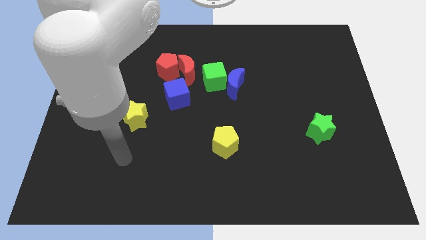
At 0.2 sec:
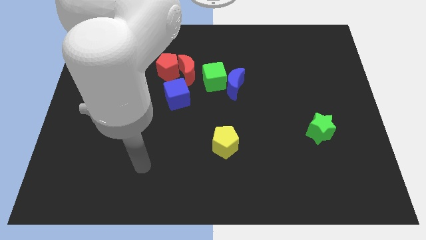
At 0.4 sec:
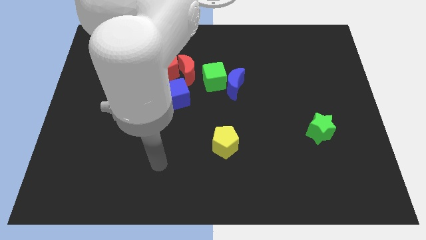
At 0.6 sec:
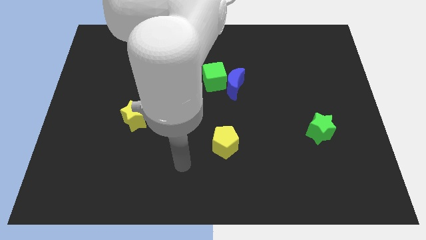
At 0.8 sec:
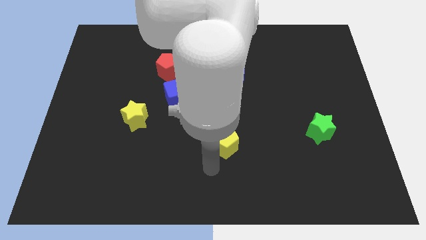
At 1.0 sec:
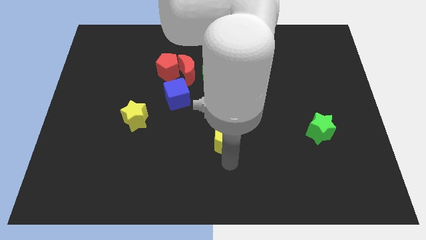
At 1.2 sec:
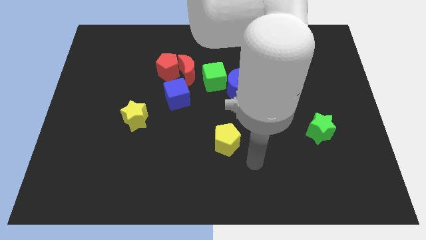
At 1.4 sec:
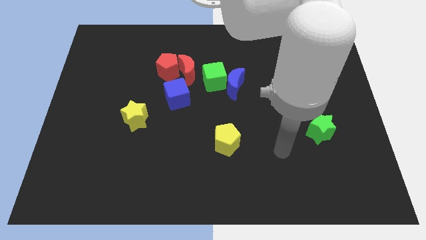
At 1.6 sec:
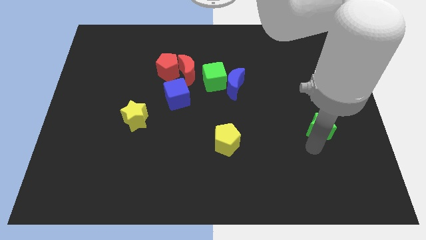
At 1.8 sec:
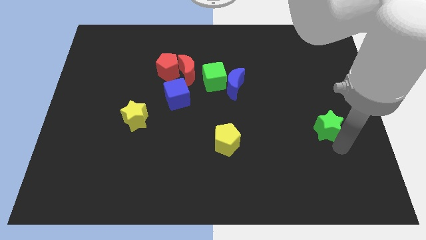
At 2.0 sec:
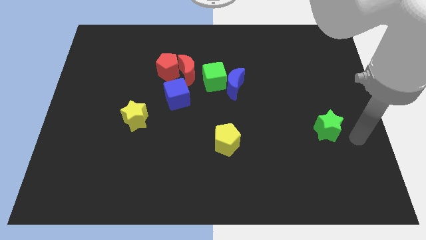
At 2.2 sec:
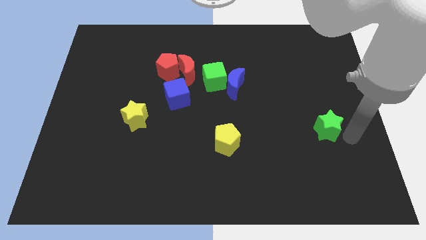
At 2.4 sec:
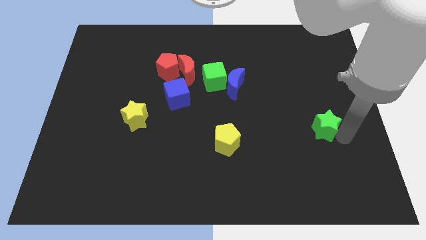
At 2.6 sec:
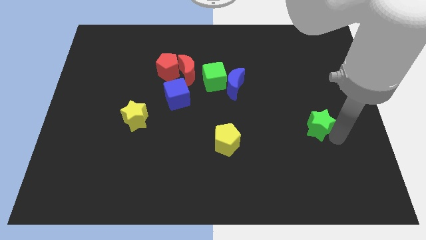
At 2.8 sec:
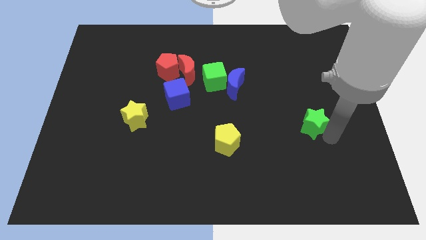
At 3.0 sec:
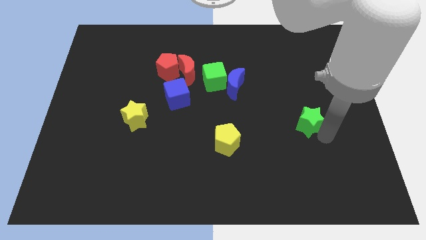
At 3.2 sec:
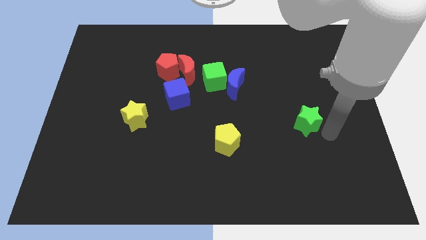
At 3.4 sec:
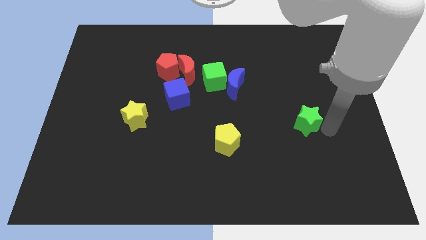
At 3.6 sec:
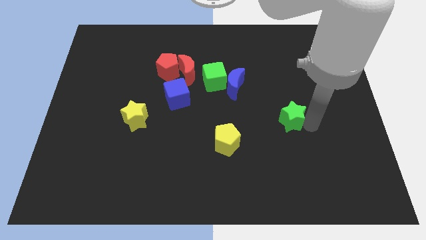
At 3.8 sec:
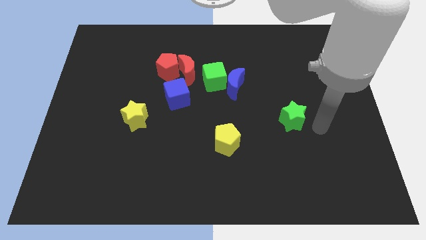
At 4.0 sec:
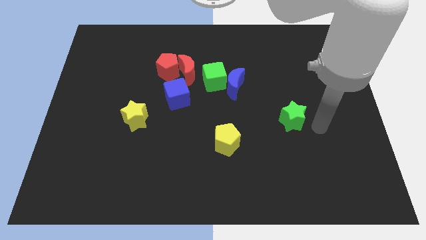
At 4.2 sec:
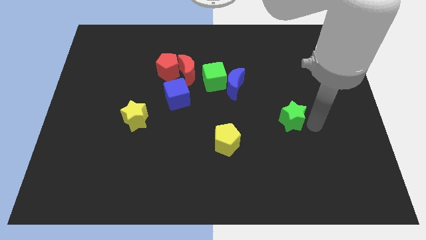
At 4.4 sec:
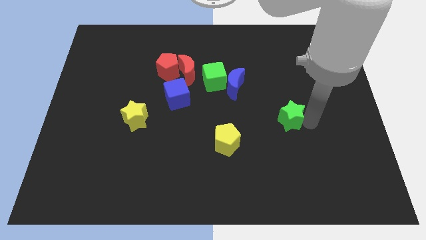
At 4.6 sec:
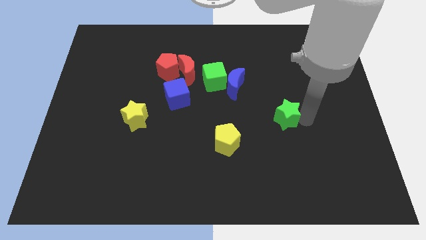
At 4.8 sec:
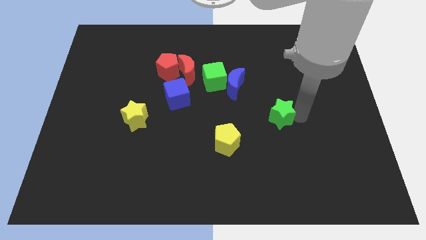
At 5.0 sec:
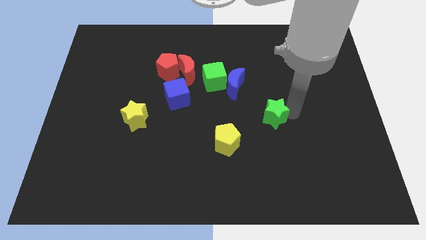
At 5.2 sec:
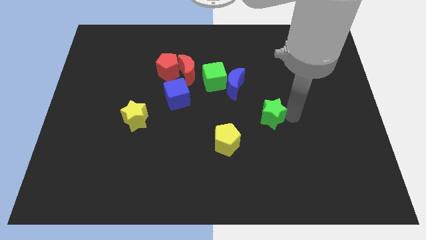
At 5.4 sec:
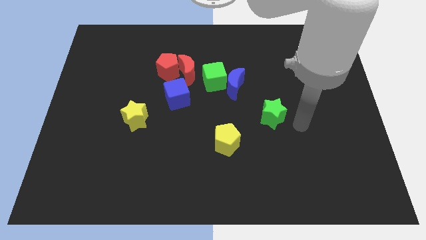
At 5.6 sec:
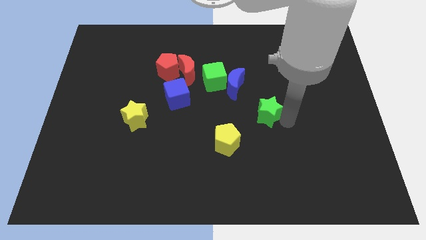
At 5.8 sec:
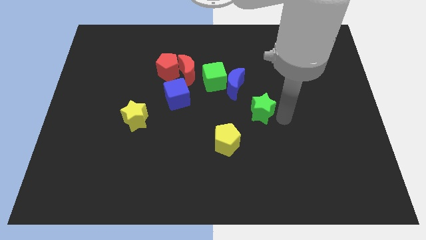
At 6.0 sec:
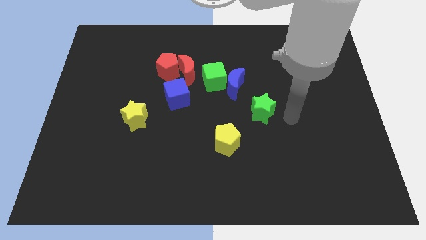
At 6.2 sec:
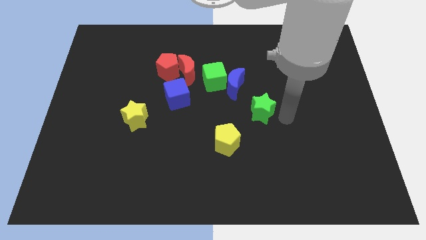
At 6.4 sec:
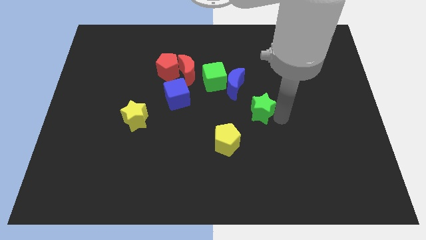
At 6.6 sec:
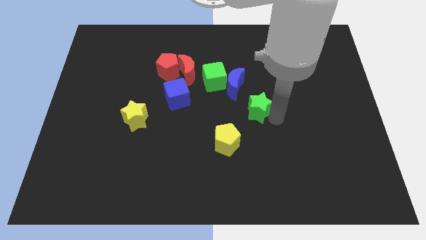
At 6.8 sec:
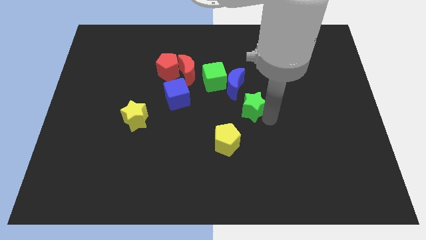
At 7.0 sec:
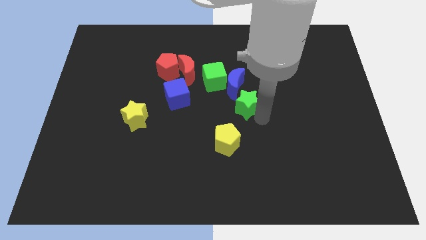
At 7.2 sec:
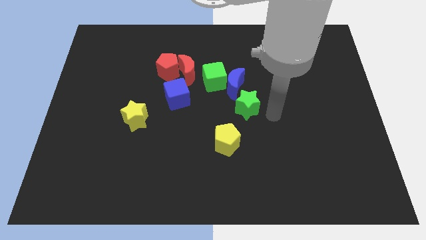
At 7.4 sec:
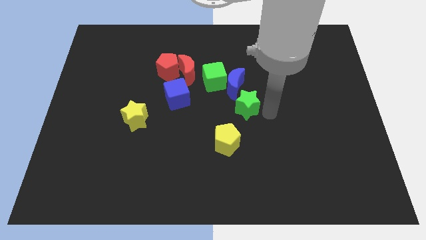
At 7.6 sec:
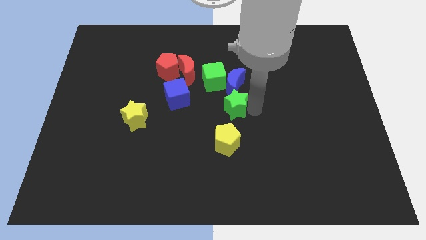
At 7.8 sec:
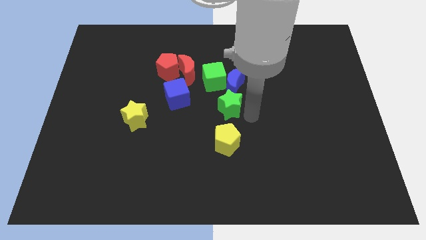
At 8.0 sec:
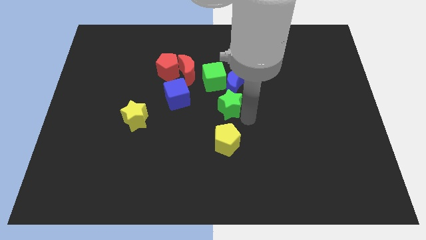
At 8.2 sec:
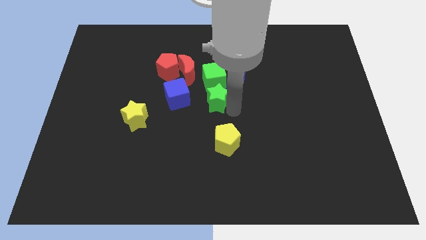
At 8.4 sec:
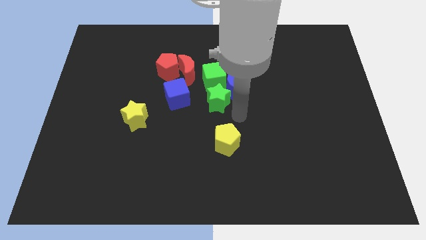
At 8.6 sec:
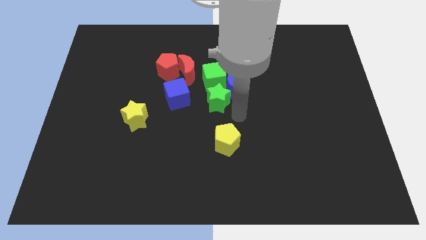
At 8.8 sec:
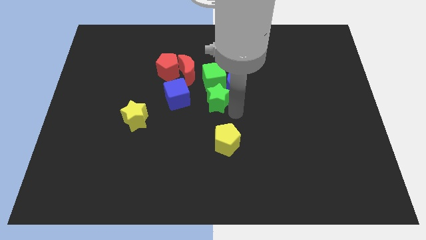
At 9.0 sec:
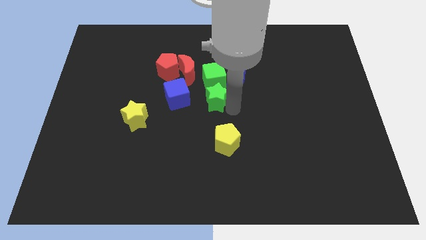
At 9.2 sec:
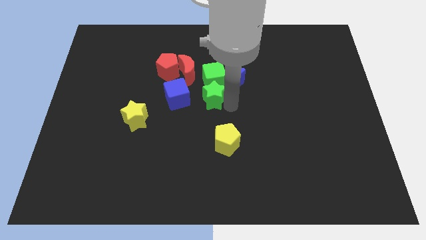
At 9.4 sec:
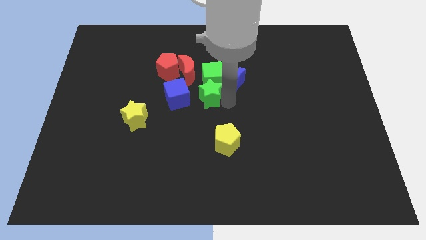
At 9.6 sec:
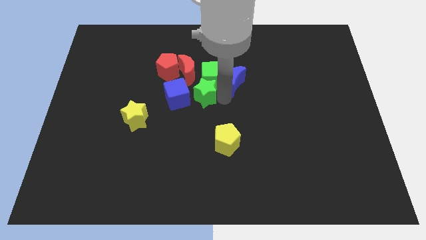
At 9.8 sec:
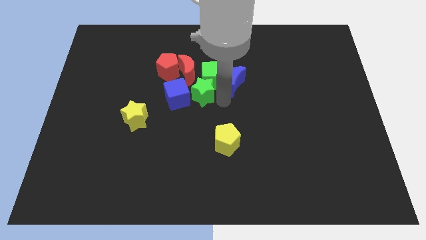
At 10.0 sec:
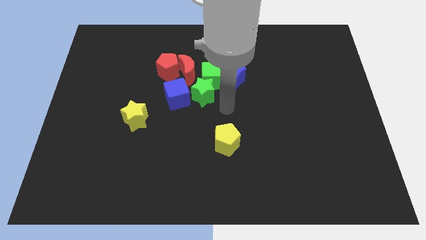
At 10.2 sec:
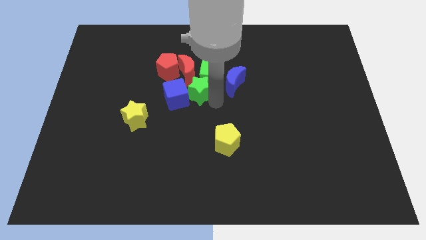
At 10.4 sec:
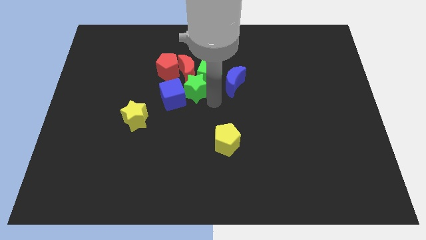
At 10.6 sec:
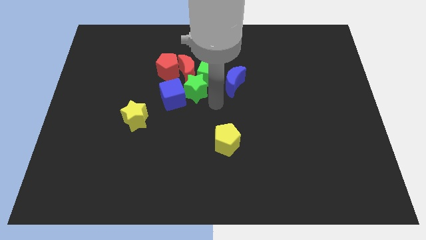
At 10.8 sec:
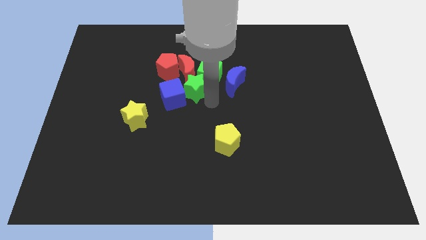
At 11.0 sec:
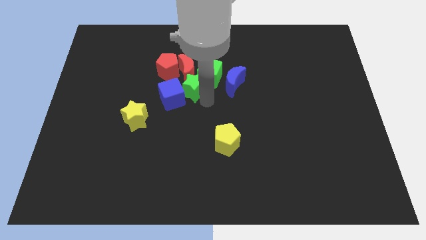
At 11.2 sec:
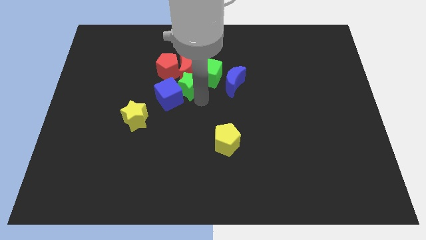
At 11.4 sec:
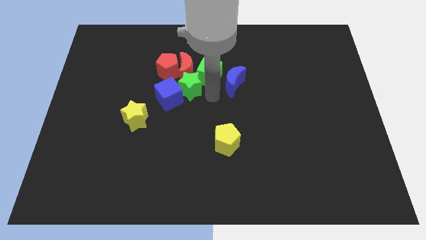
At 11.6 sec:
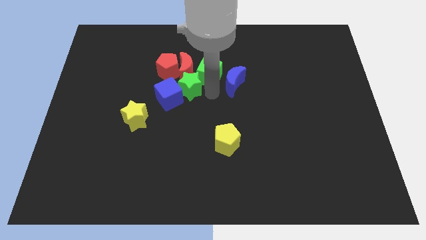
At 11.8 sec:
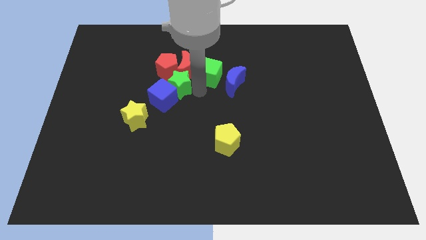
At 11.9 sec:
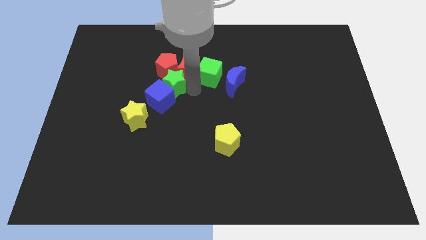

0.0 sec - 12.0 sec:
push the green star to the red pentagon

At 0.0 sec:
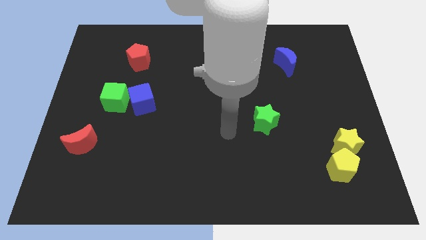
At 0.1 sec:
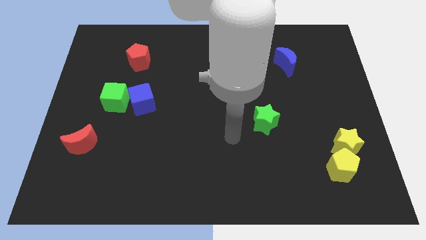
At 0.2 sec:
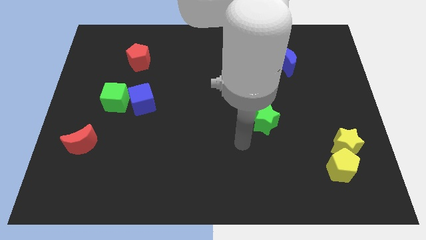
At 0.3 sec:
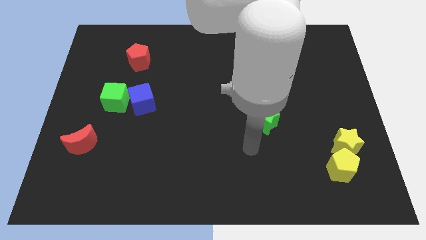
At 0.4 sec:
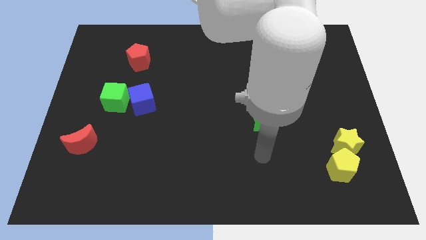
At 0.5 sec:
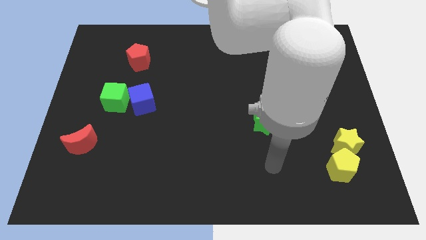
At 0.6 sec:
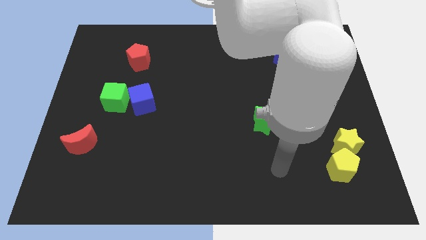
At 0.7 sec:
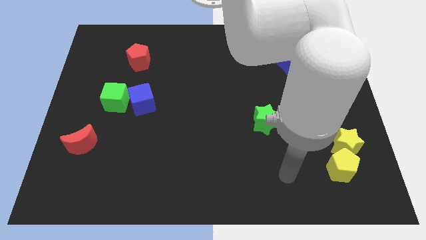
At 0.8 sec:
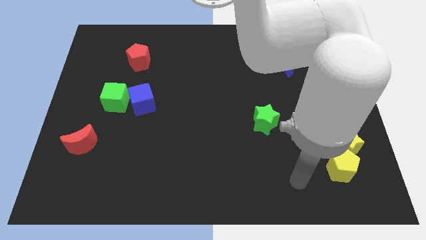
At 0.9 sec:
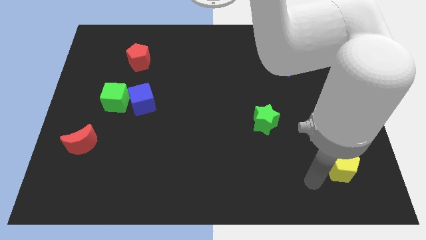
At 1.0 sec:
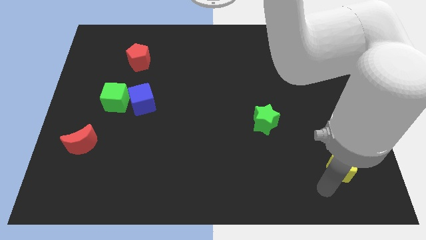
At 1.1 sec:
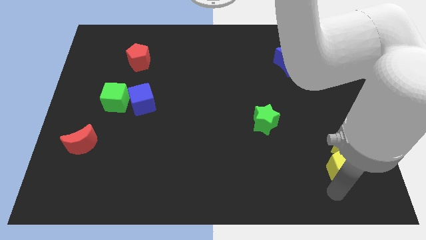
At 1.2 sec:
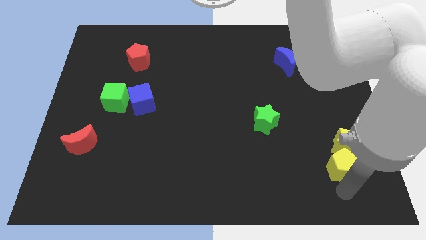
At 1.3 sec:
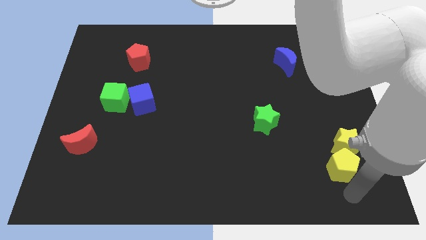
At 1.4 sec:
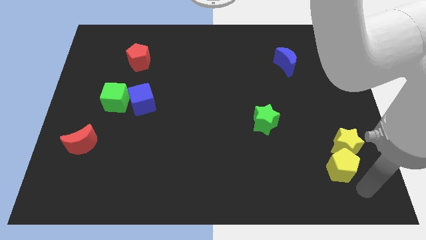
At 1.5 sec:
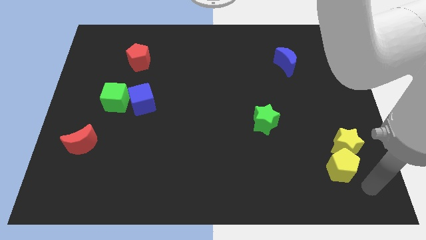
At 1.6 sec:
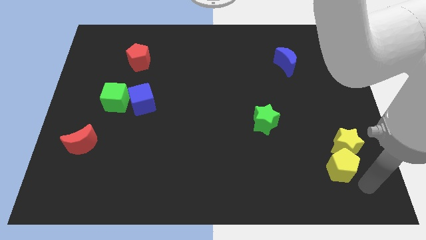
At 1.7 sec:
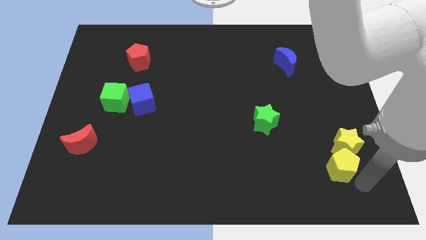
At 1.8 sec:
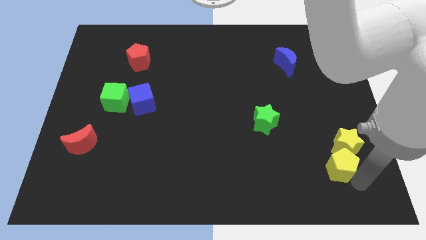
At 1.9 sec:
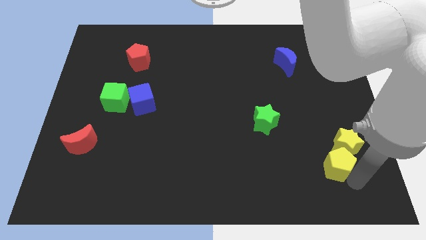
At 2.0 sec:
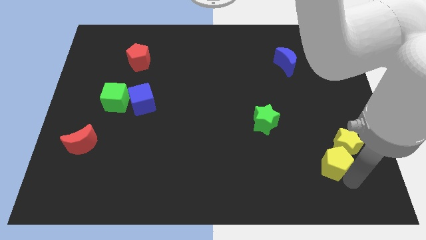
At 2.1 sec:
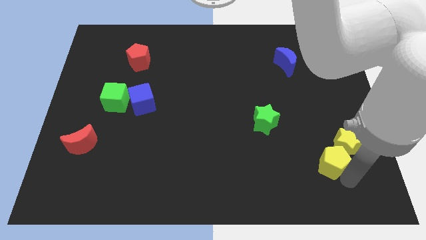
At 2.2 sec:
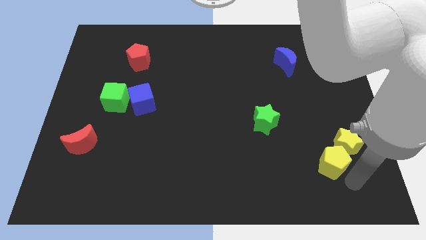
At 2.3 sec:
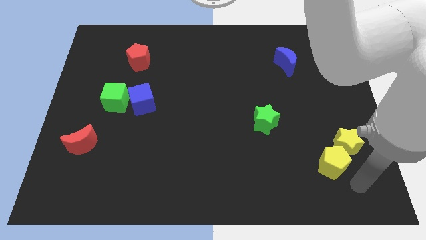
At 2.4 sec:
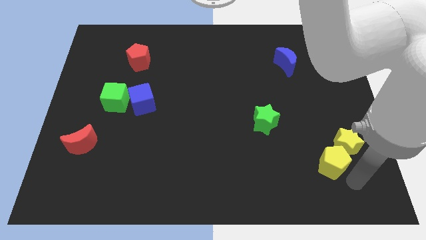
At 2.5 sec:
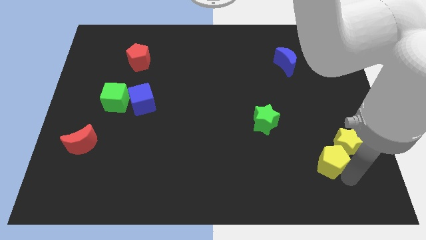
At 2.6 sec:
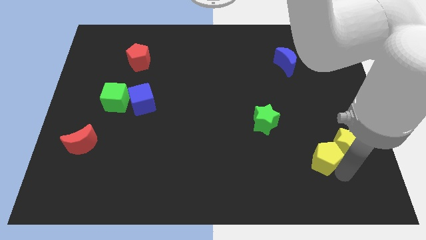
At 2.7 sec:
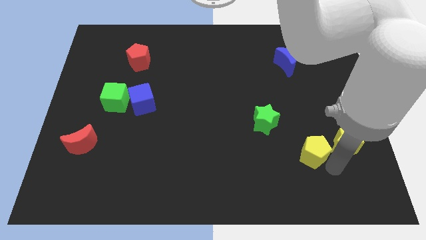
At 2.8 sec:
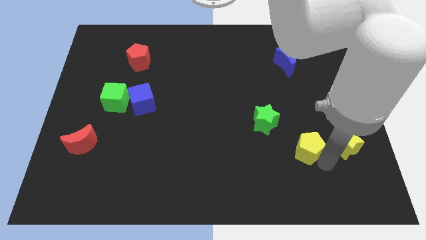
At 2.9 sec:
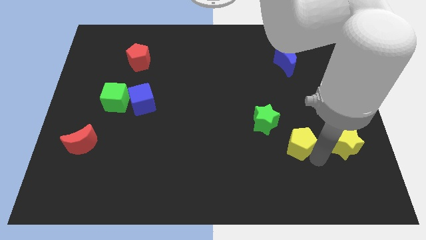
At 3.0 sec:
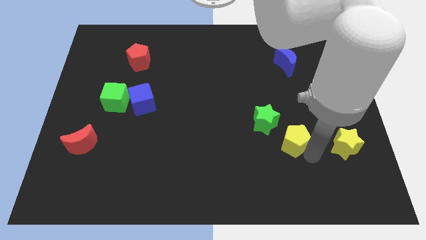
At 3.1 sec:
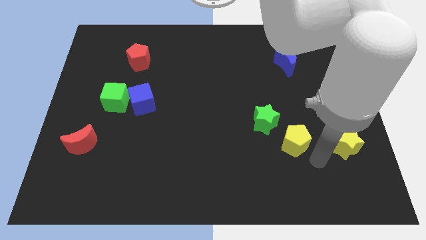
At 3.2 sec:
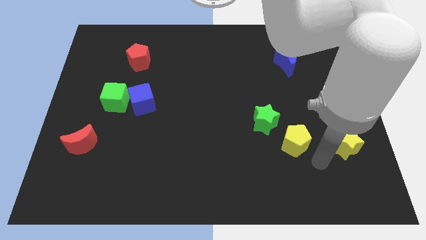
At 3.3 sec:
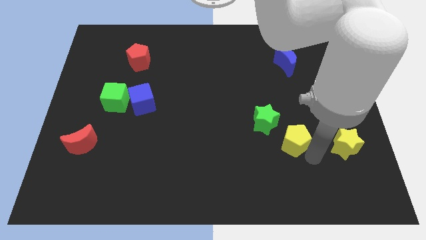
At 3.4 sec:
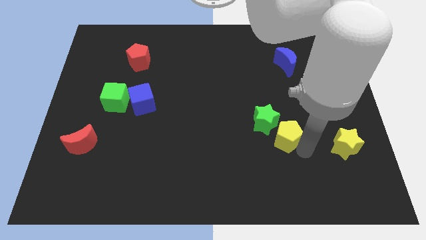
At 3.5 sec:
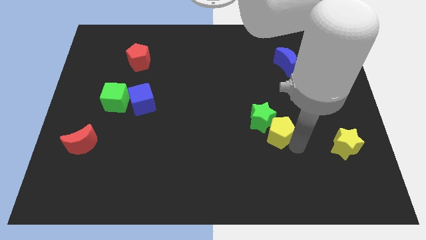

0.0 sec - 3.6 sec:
move the yellow pentagon next to the green star
